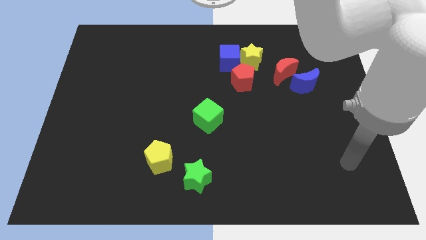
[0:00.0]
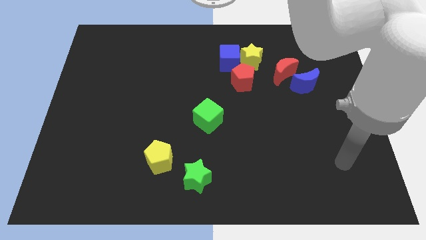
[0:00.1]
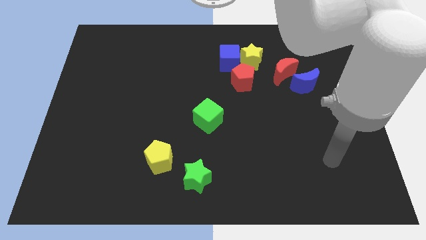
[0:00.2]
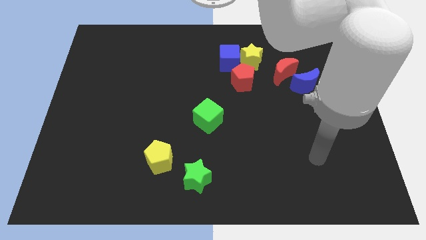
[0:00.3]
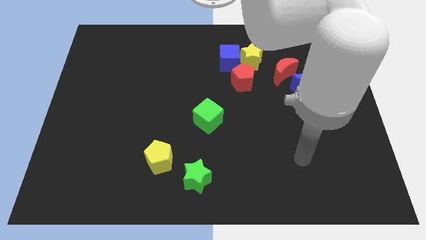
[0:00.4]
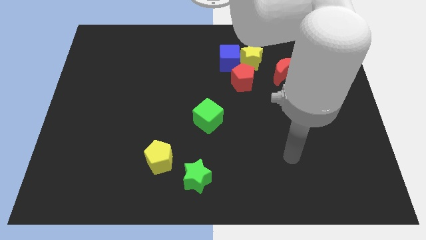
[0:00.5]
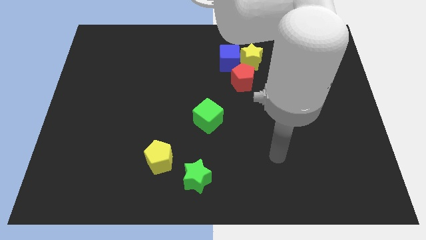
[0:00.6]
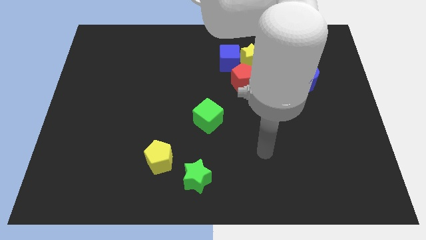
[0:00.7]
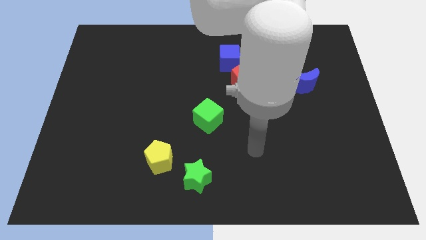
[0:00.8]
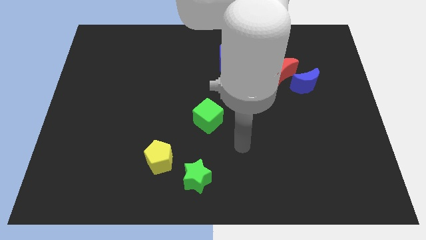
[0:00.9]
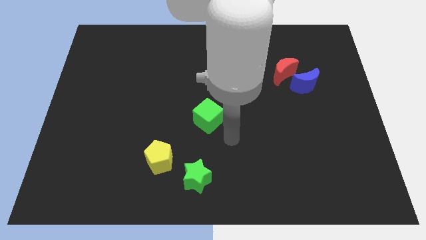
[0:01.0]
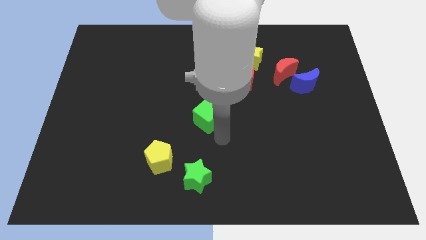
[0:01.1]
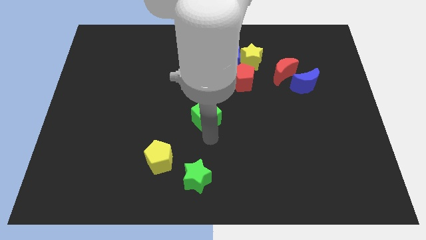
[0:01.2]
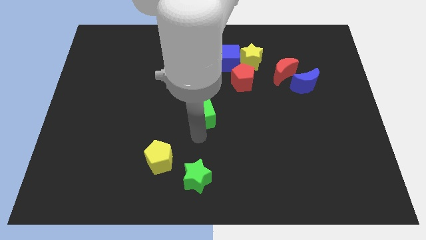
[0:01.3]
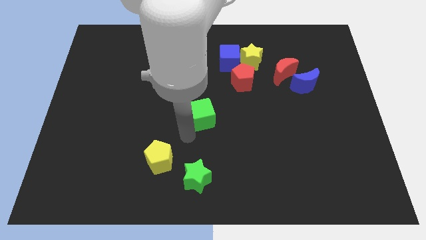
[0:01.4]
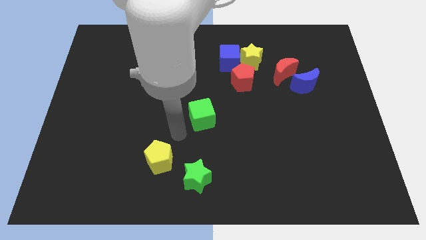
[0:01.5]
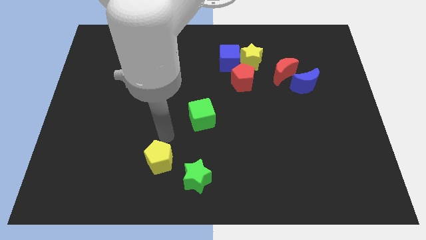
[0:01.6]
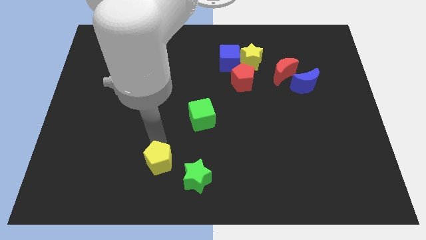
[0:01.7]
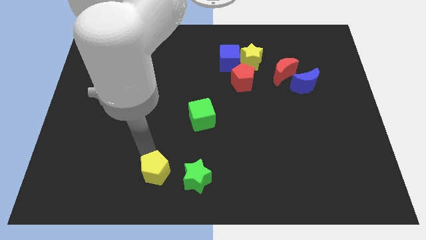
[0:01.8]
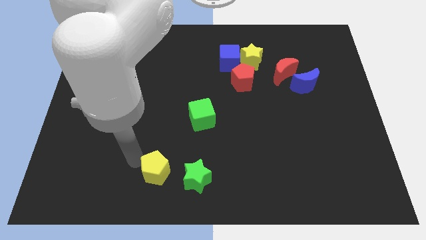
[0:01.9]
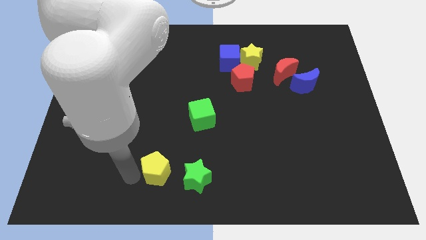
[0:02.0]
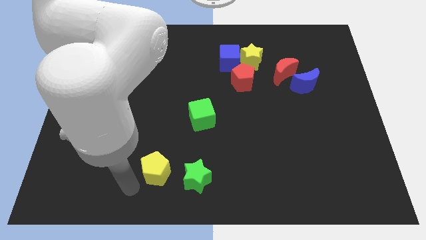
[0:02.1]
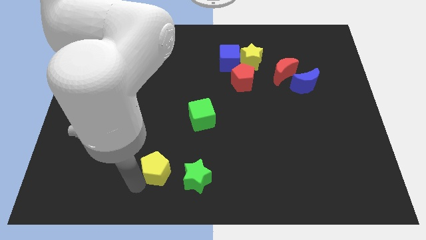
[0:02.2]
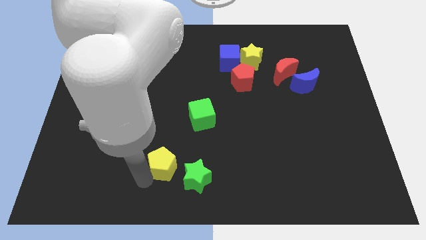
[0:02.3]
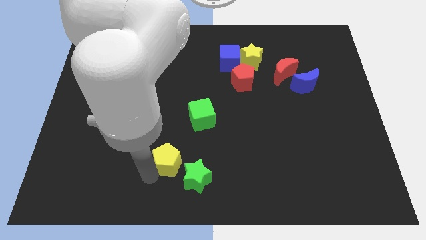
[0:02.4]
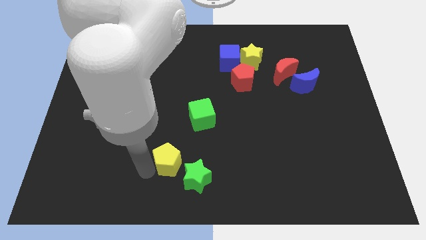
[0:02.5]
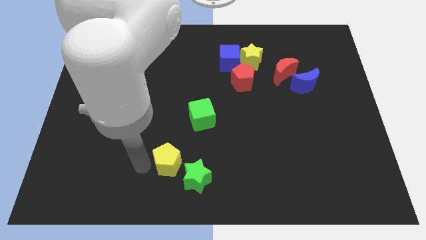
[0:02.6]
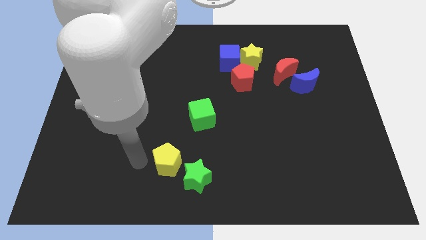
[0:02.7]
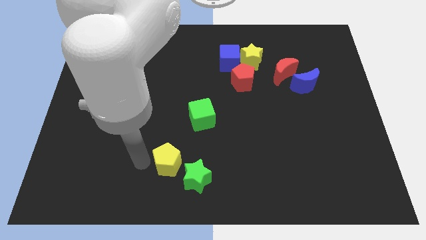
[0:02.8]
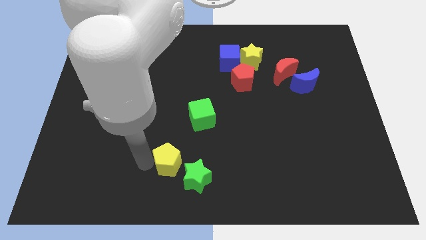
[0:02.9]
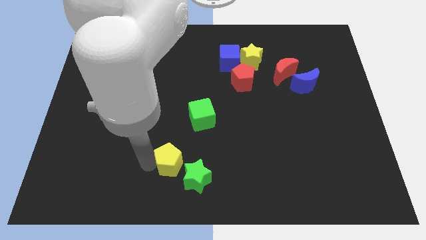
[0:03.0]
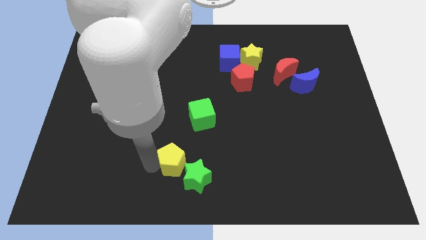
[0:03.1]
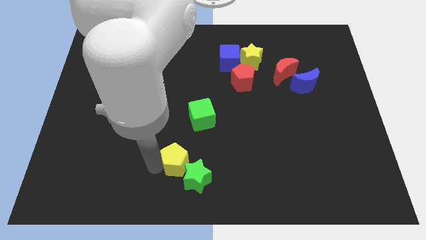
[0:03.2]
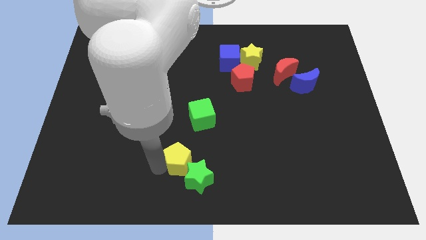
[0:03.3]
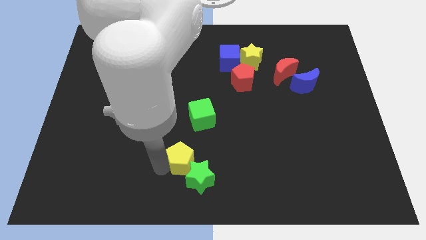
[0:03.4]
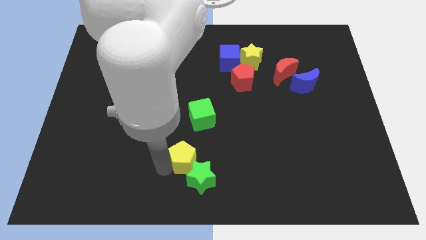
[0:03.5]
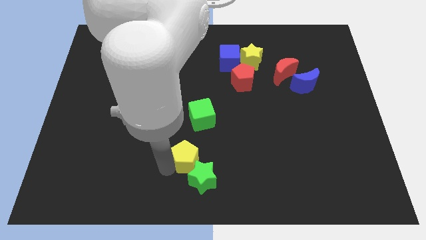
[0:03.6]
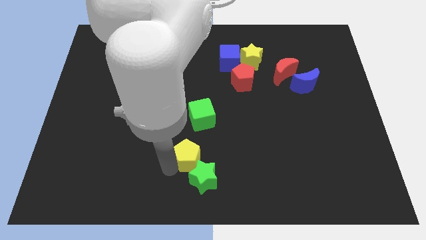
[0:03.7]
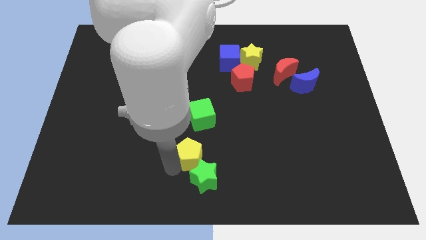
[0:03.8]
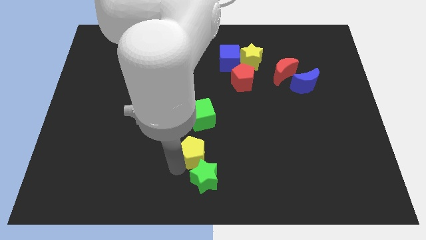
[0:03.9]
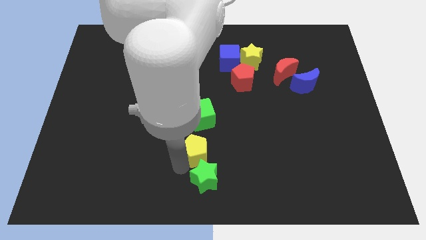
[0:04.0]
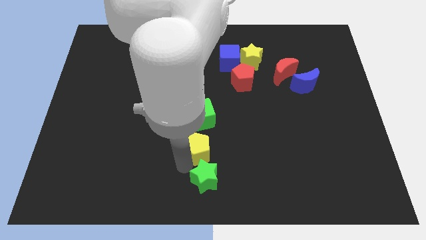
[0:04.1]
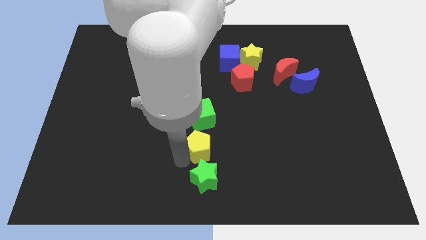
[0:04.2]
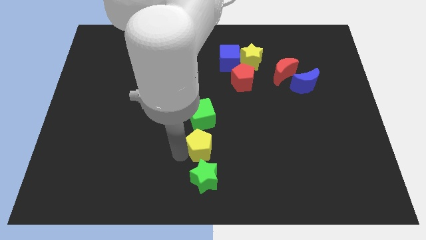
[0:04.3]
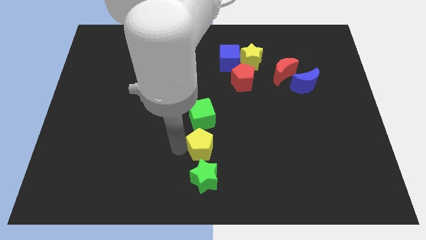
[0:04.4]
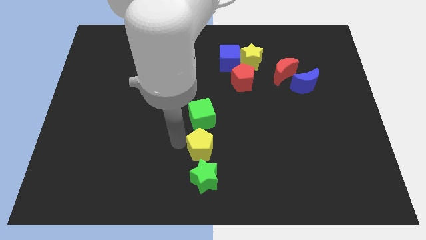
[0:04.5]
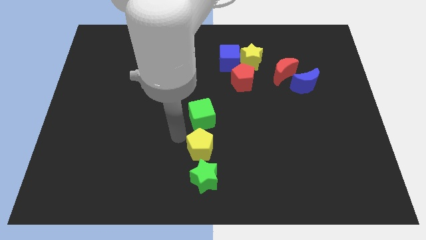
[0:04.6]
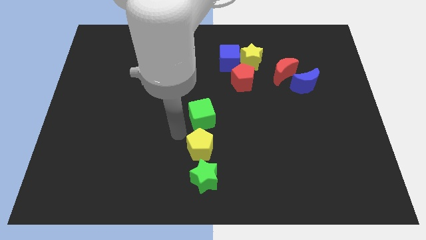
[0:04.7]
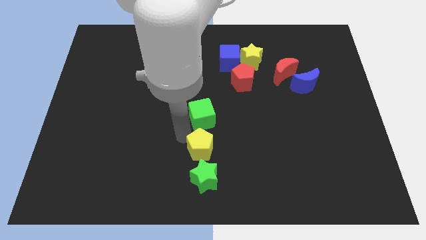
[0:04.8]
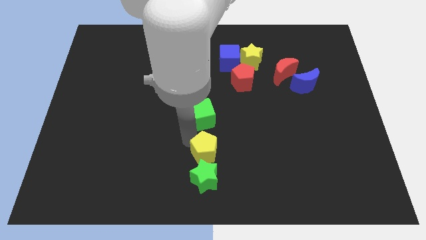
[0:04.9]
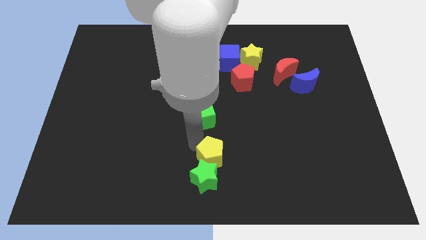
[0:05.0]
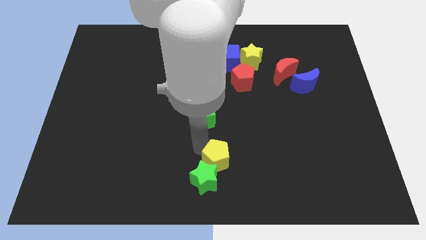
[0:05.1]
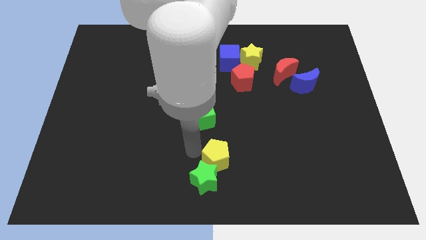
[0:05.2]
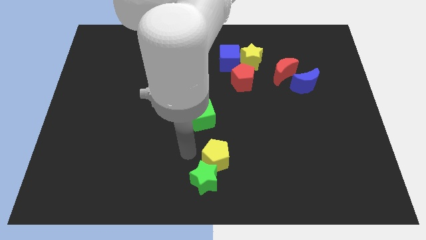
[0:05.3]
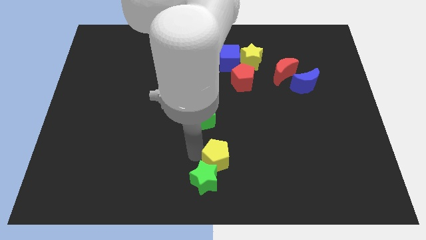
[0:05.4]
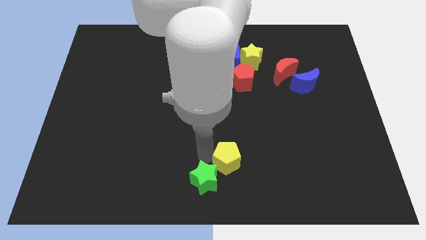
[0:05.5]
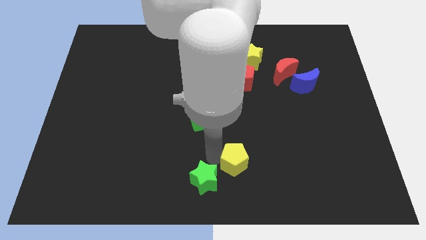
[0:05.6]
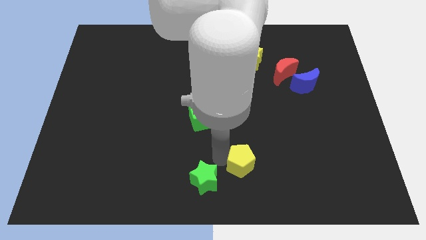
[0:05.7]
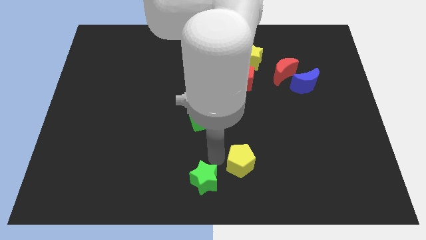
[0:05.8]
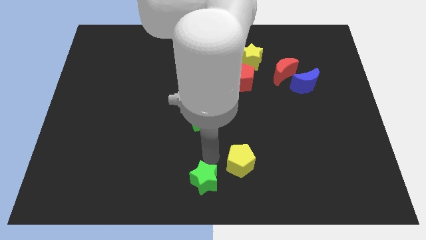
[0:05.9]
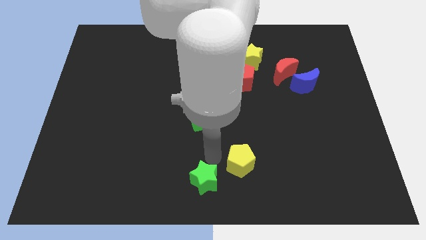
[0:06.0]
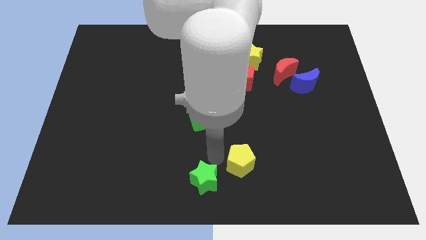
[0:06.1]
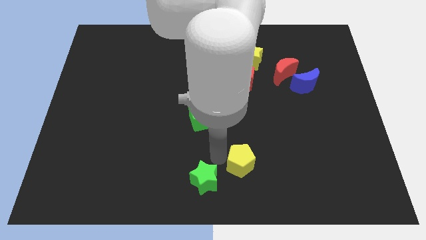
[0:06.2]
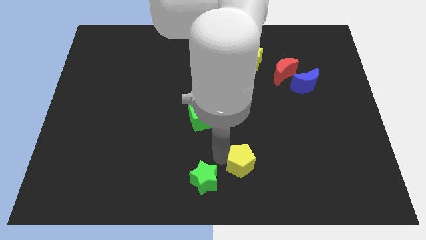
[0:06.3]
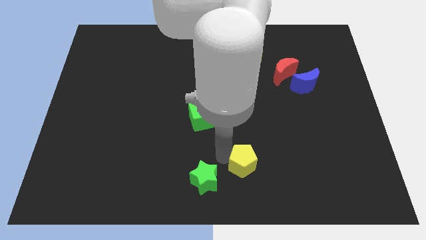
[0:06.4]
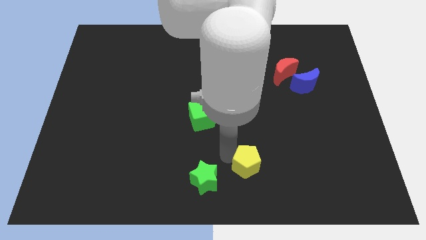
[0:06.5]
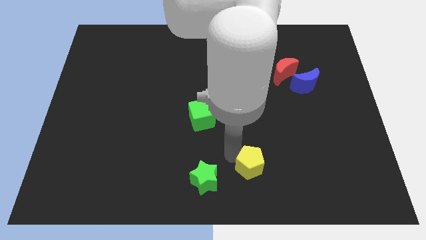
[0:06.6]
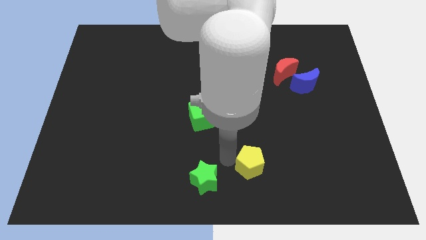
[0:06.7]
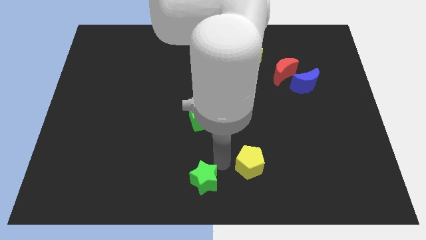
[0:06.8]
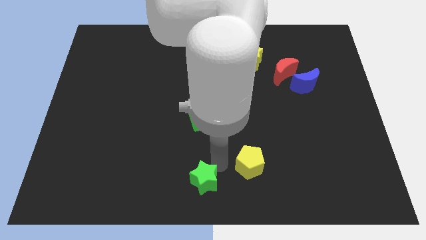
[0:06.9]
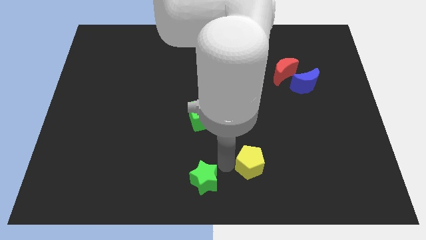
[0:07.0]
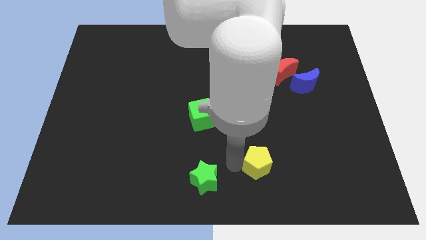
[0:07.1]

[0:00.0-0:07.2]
move the yellow pentagon right

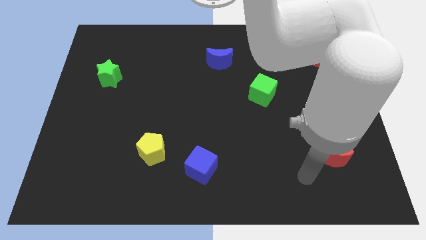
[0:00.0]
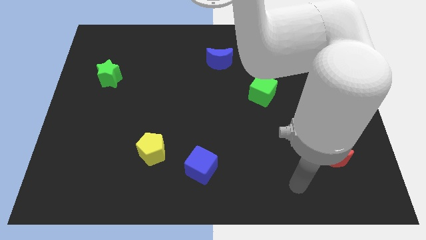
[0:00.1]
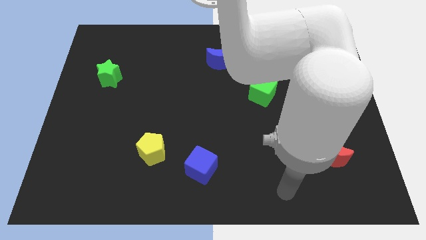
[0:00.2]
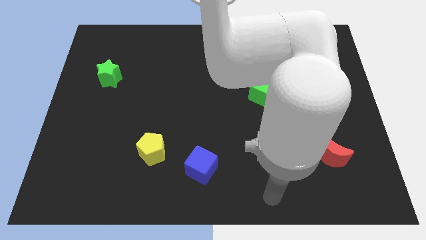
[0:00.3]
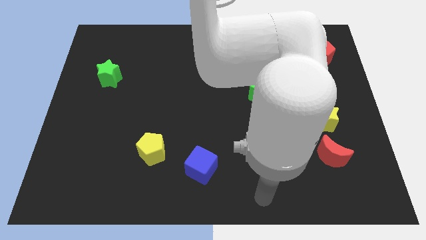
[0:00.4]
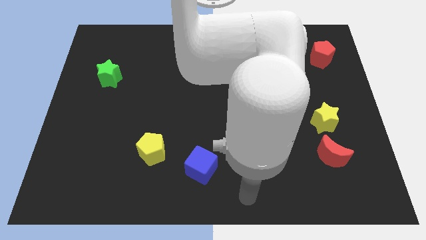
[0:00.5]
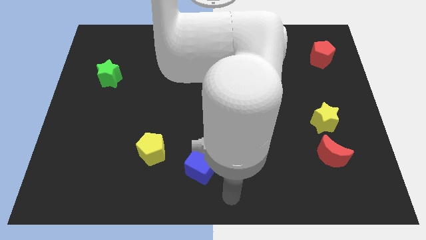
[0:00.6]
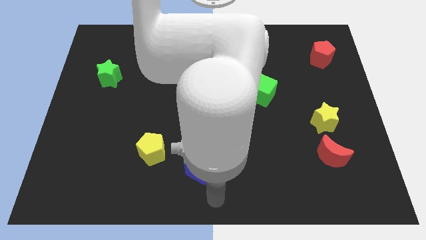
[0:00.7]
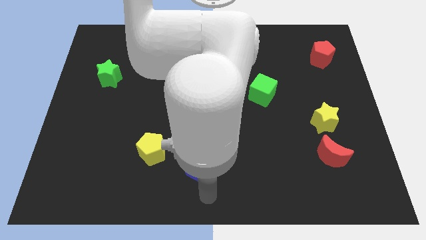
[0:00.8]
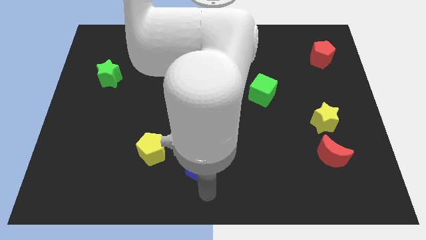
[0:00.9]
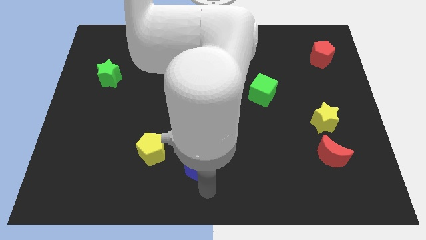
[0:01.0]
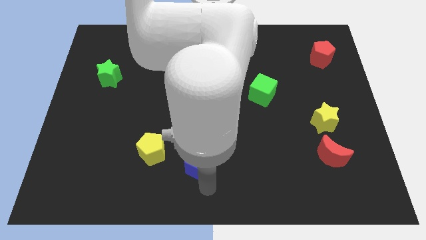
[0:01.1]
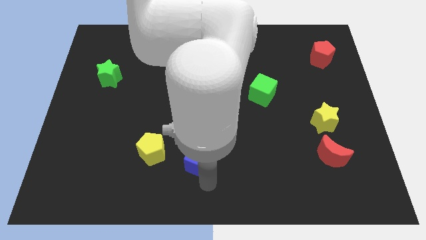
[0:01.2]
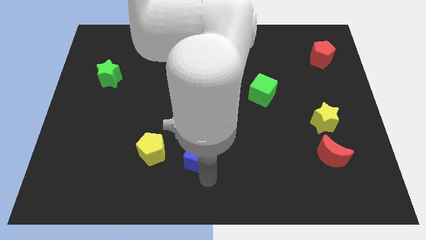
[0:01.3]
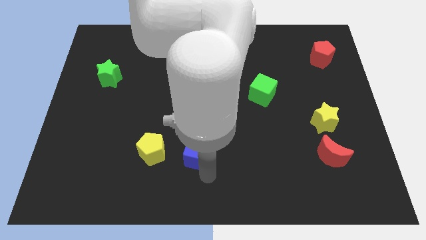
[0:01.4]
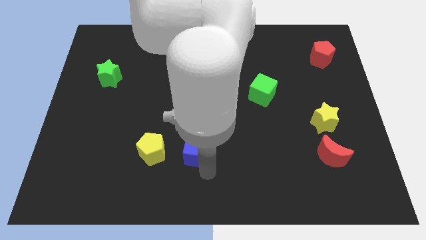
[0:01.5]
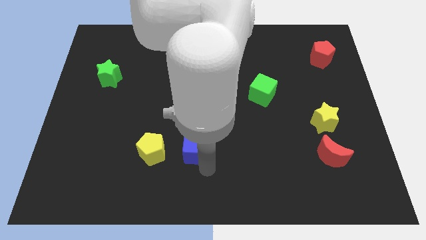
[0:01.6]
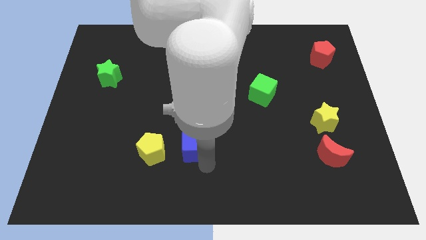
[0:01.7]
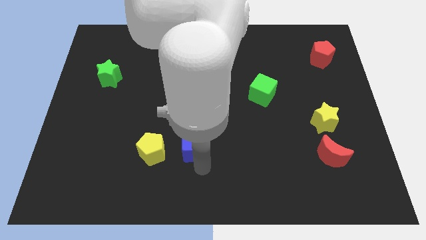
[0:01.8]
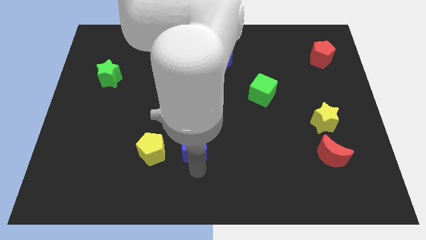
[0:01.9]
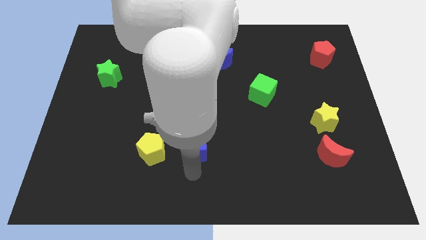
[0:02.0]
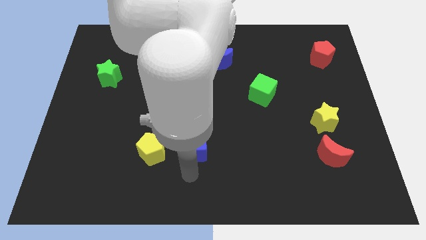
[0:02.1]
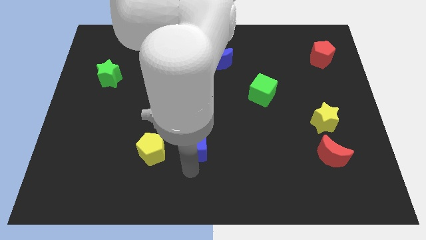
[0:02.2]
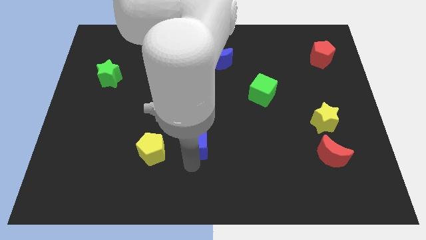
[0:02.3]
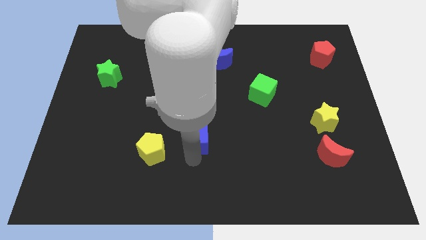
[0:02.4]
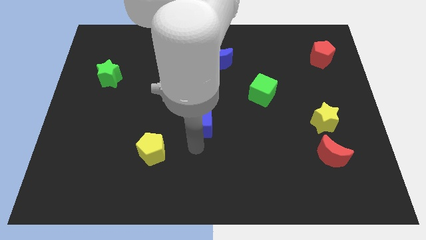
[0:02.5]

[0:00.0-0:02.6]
move the blue cube a bit upwards
